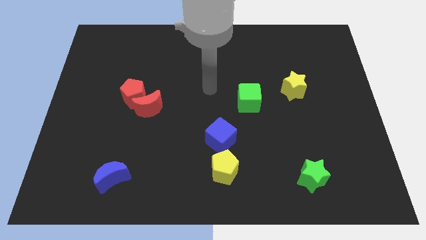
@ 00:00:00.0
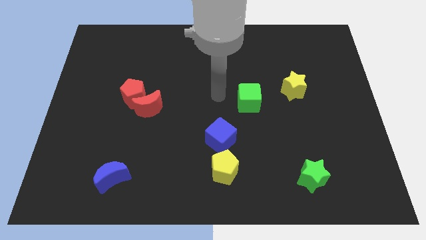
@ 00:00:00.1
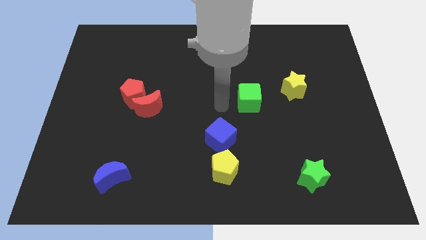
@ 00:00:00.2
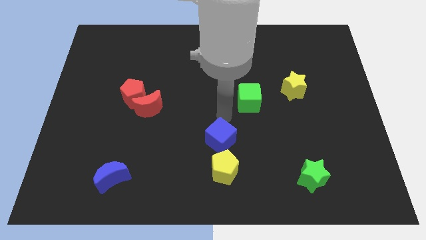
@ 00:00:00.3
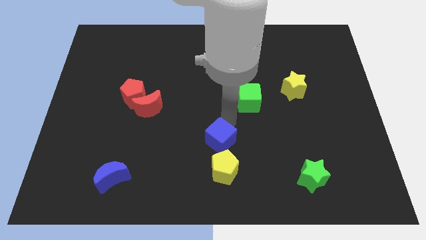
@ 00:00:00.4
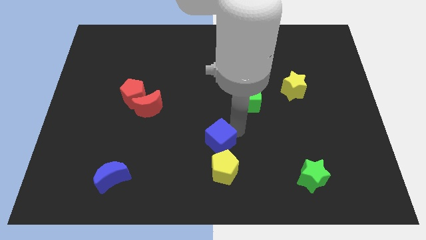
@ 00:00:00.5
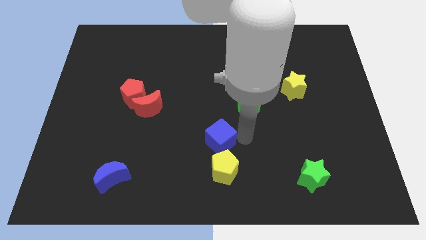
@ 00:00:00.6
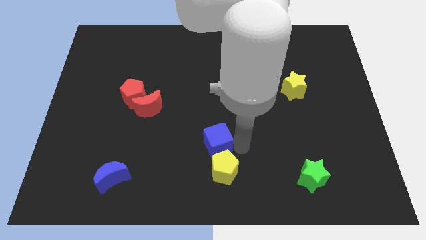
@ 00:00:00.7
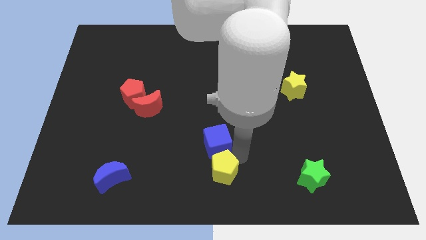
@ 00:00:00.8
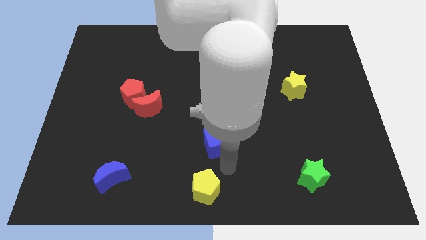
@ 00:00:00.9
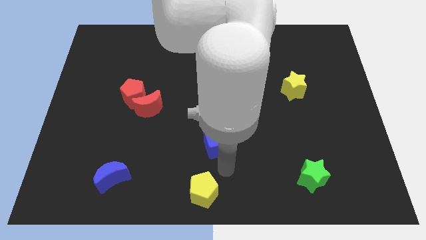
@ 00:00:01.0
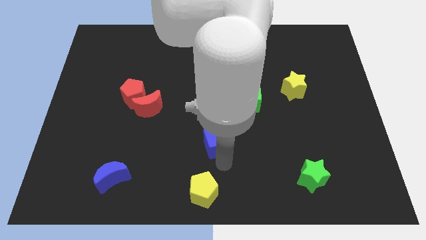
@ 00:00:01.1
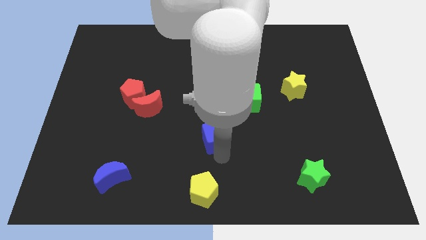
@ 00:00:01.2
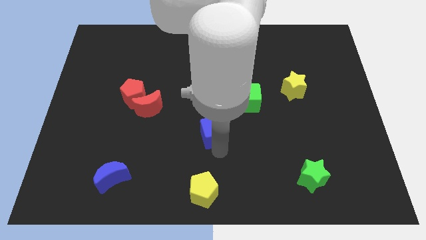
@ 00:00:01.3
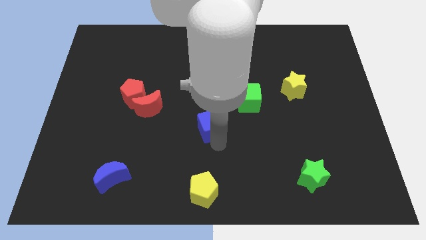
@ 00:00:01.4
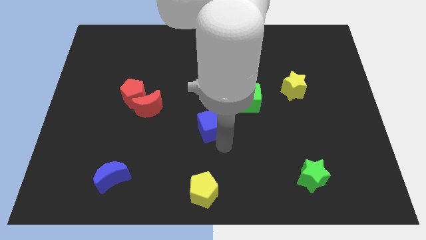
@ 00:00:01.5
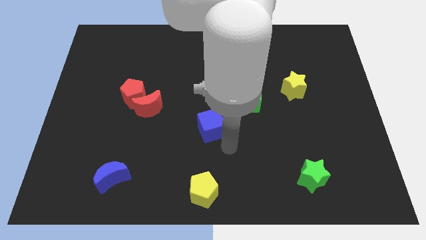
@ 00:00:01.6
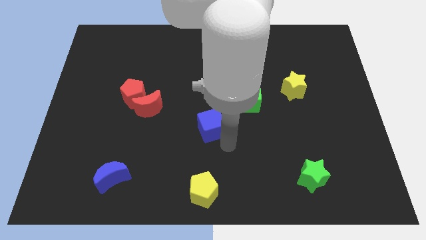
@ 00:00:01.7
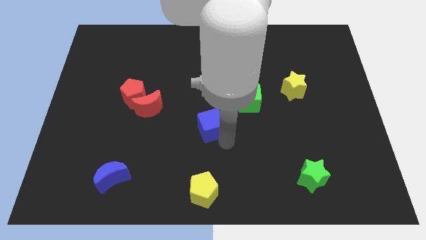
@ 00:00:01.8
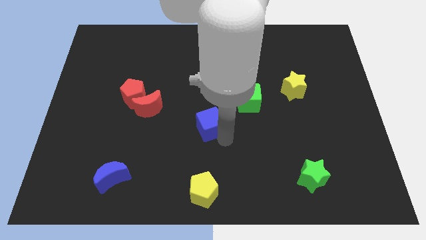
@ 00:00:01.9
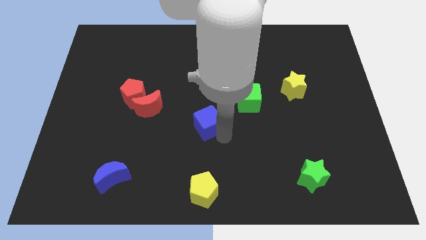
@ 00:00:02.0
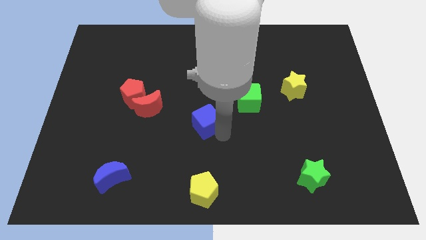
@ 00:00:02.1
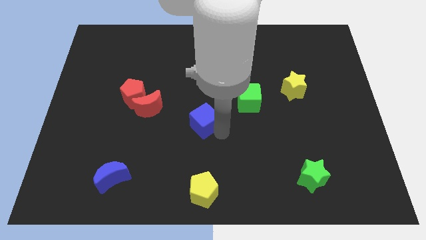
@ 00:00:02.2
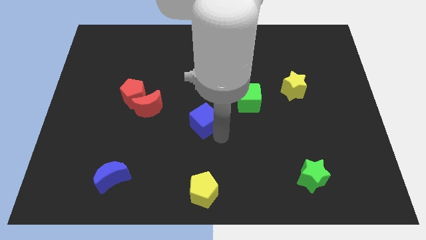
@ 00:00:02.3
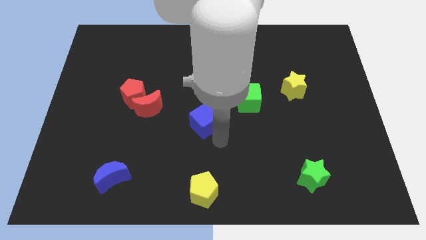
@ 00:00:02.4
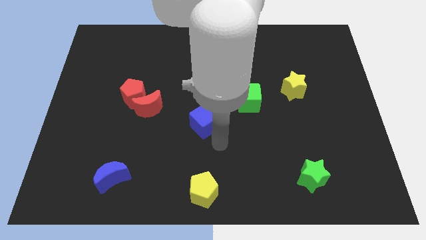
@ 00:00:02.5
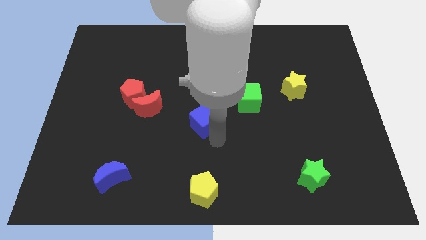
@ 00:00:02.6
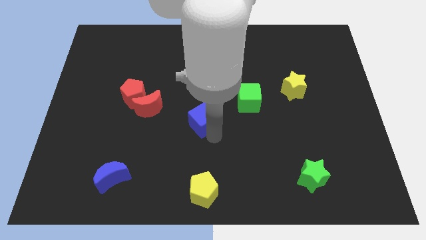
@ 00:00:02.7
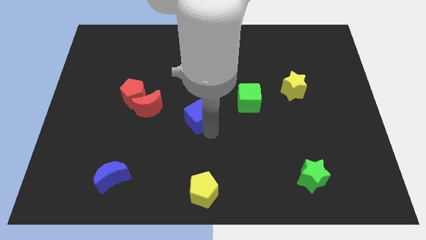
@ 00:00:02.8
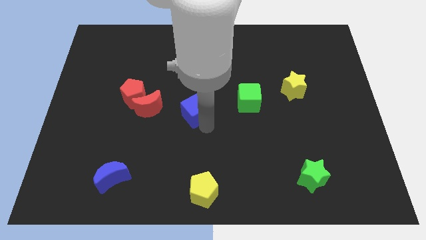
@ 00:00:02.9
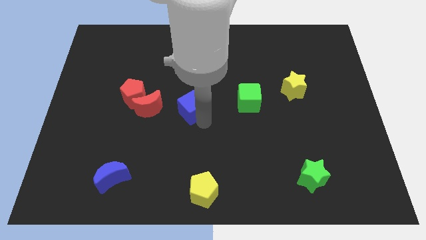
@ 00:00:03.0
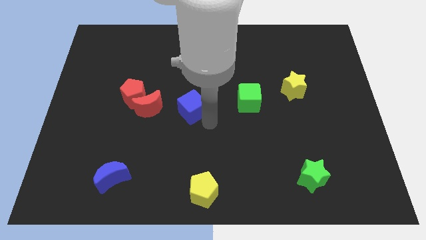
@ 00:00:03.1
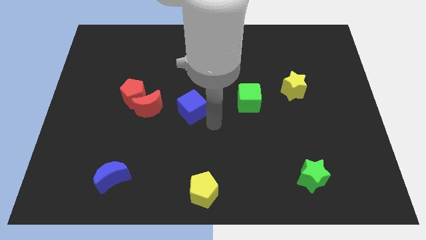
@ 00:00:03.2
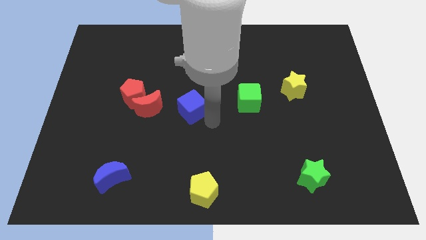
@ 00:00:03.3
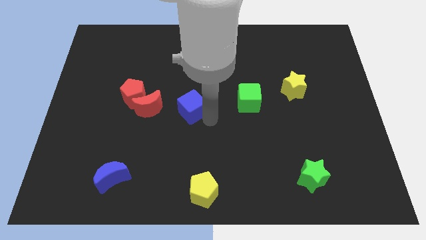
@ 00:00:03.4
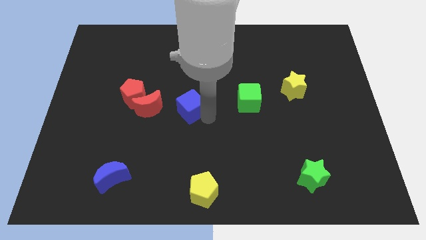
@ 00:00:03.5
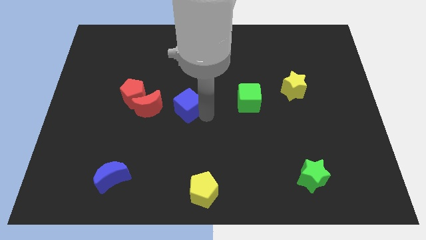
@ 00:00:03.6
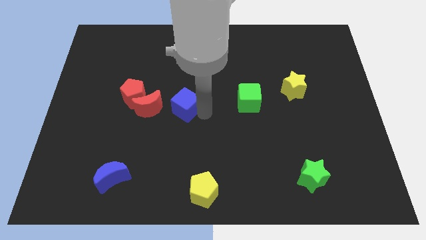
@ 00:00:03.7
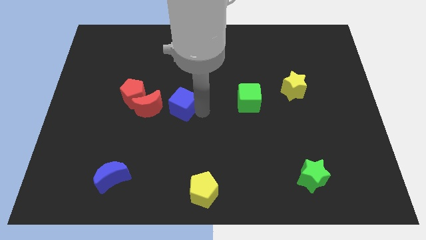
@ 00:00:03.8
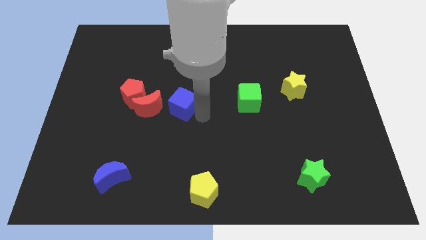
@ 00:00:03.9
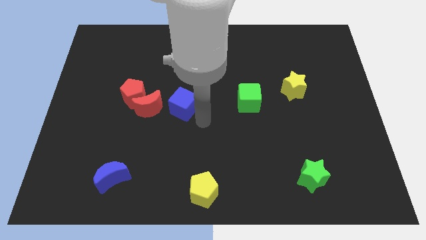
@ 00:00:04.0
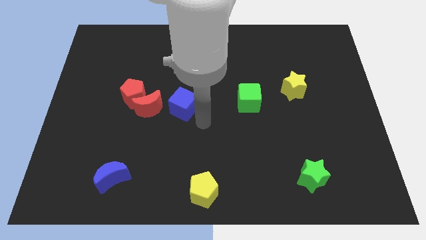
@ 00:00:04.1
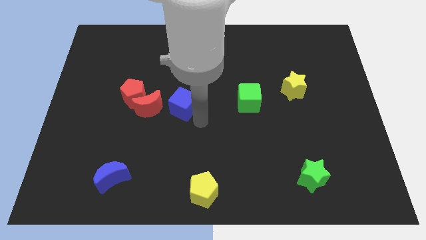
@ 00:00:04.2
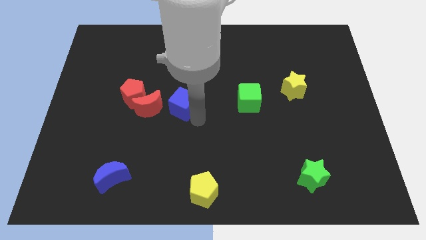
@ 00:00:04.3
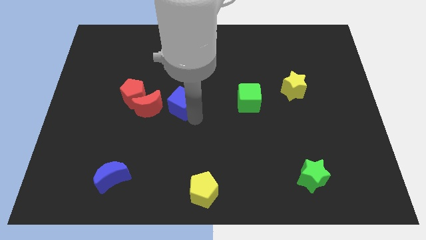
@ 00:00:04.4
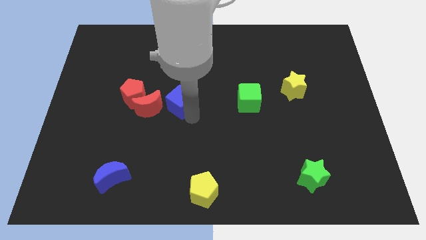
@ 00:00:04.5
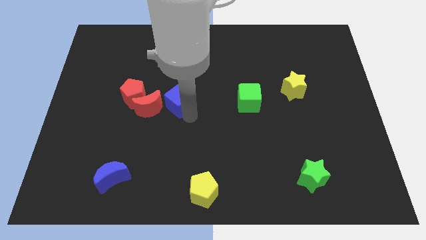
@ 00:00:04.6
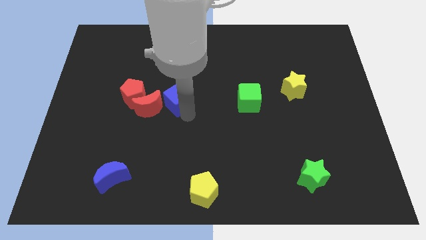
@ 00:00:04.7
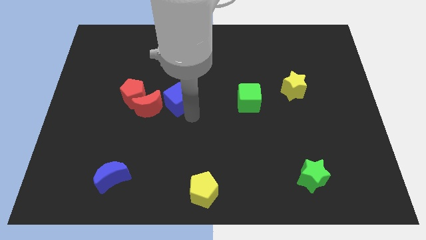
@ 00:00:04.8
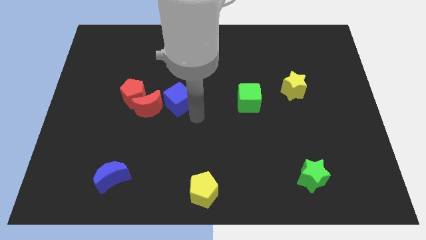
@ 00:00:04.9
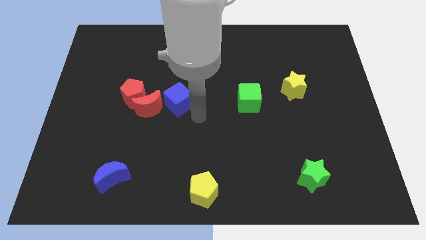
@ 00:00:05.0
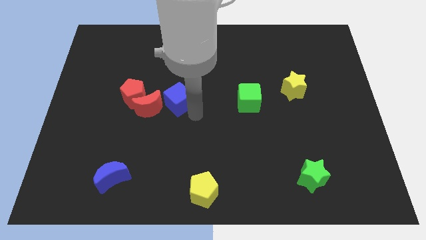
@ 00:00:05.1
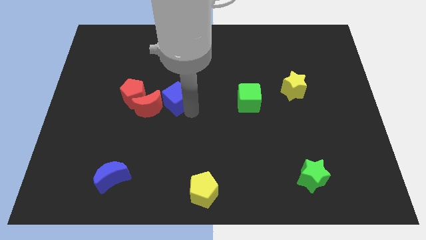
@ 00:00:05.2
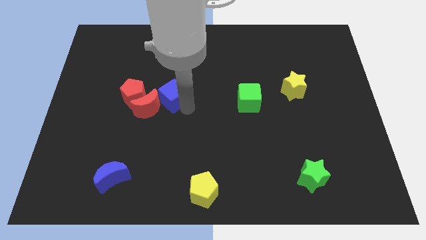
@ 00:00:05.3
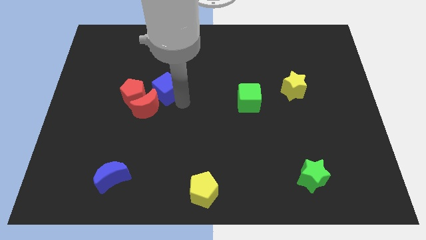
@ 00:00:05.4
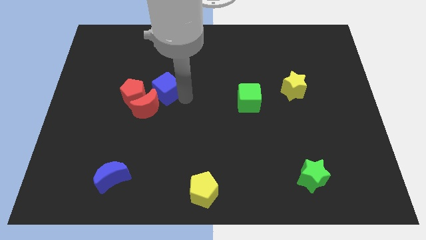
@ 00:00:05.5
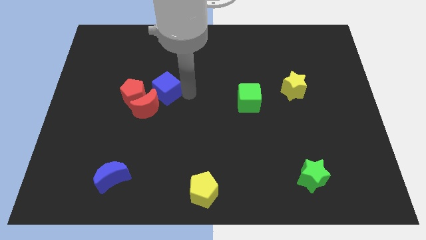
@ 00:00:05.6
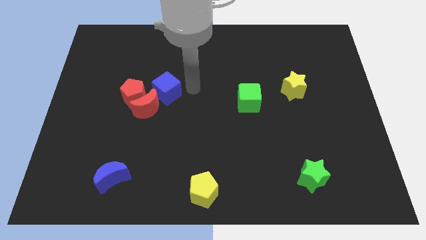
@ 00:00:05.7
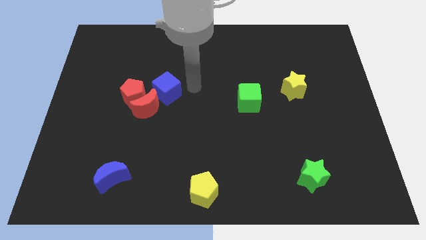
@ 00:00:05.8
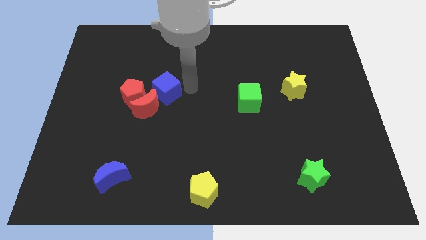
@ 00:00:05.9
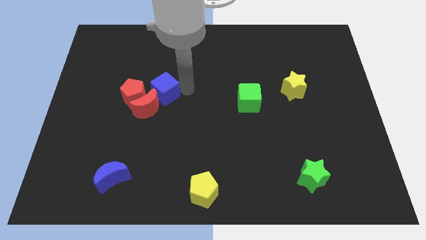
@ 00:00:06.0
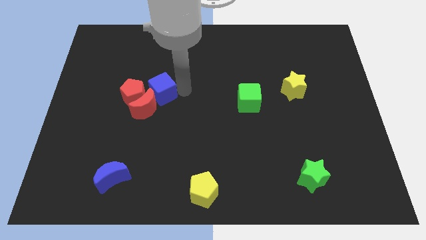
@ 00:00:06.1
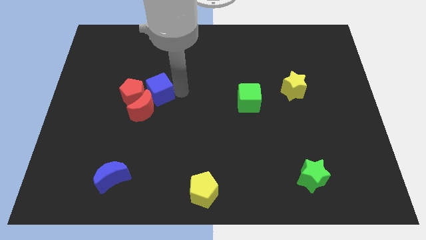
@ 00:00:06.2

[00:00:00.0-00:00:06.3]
put the blue cube towards the red pentagon

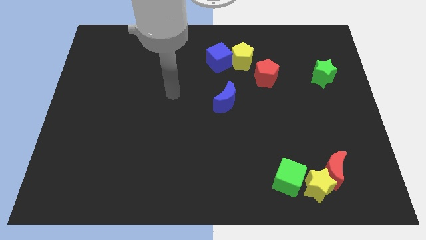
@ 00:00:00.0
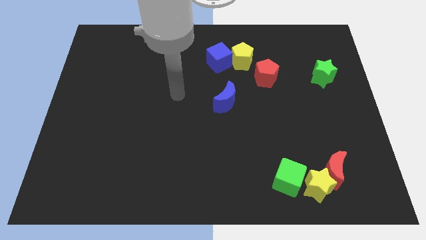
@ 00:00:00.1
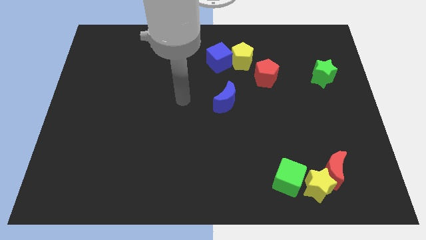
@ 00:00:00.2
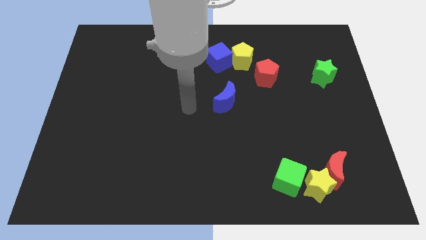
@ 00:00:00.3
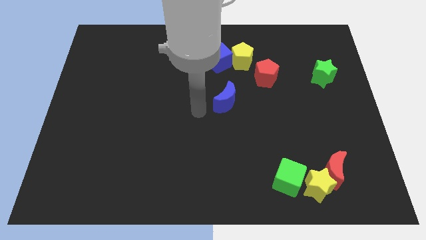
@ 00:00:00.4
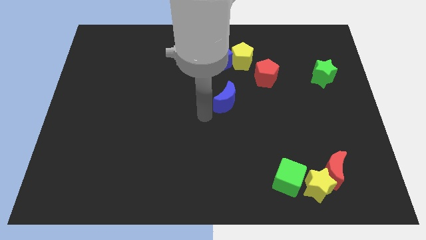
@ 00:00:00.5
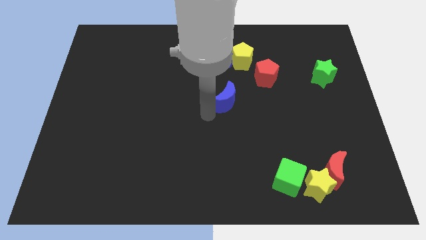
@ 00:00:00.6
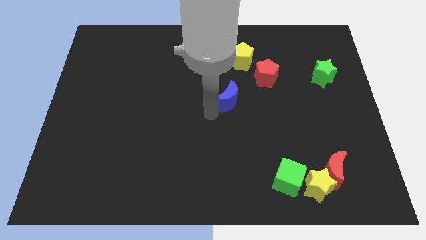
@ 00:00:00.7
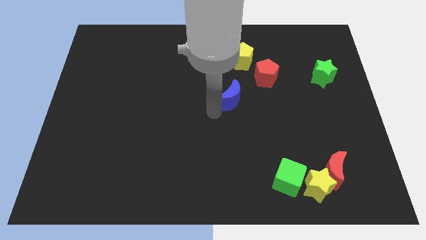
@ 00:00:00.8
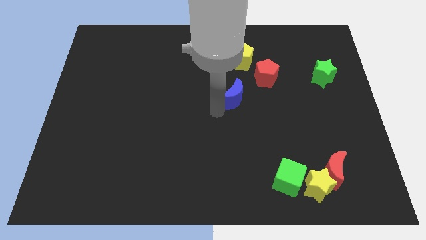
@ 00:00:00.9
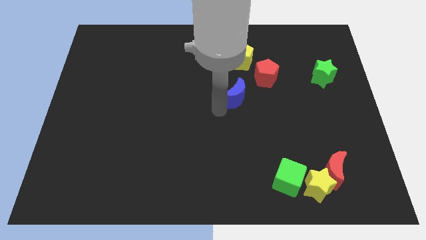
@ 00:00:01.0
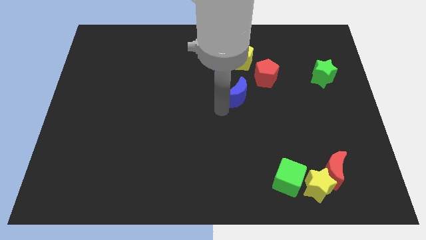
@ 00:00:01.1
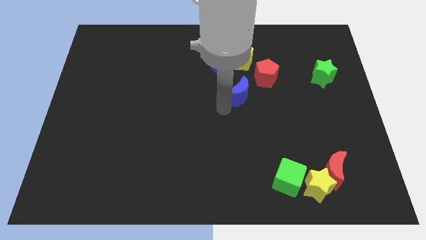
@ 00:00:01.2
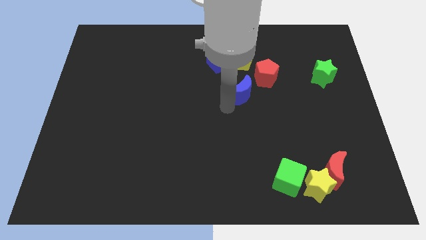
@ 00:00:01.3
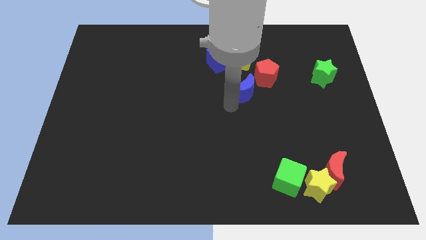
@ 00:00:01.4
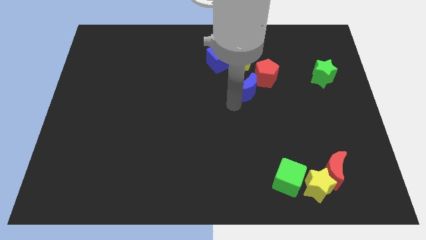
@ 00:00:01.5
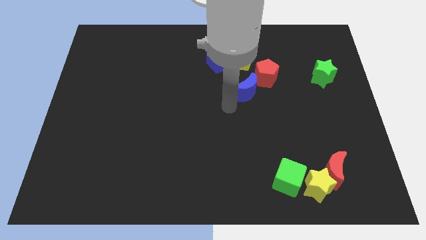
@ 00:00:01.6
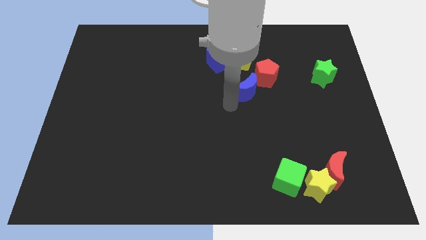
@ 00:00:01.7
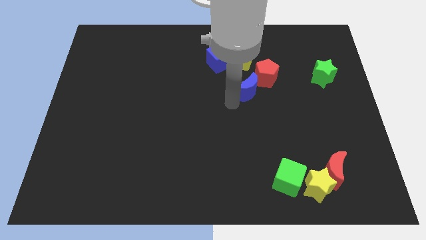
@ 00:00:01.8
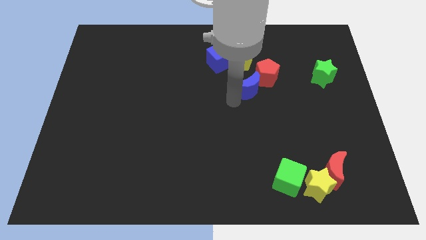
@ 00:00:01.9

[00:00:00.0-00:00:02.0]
move the blue moon close to the red pentagon
